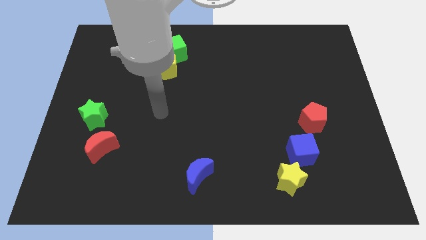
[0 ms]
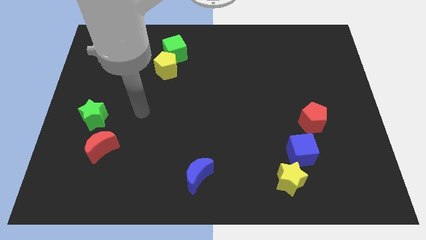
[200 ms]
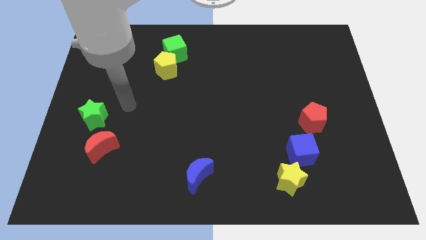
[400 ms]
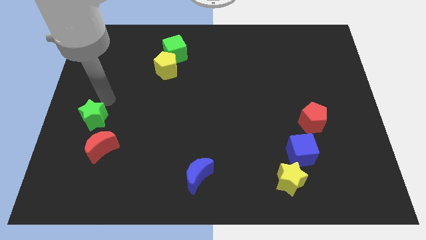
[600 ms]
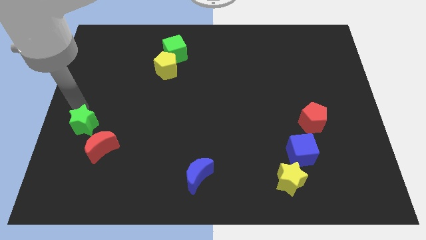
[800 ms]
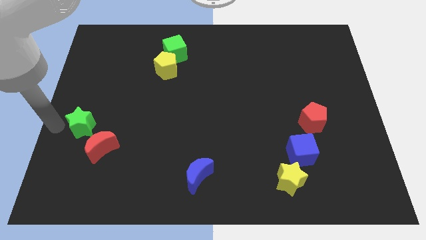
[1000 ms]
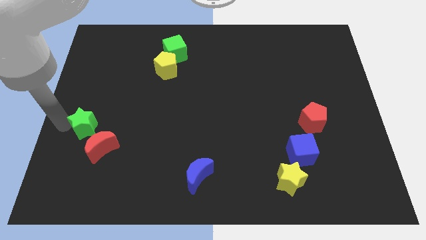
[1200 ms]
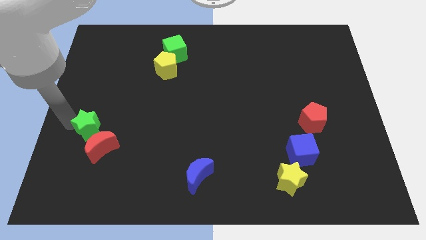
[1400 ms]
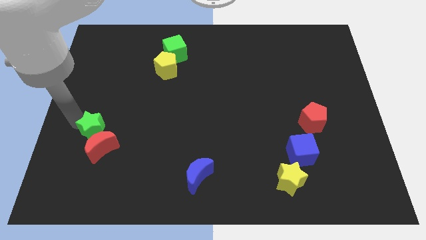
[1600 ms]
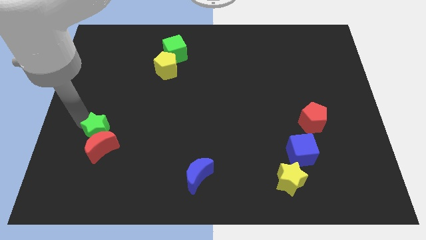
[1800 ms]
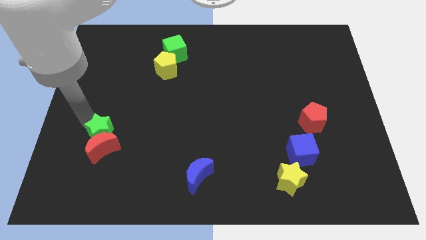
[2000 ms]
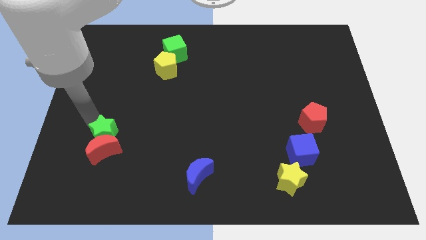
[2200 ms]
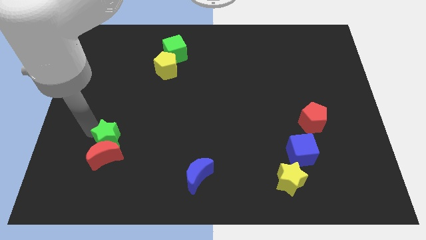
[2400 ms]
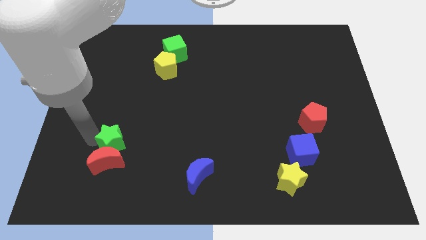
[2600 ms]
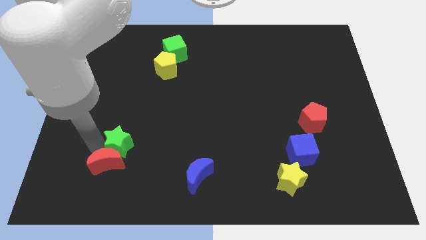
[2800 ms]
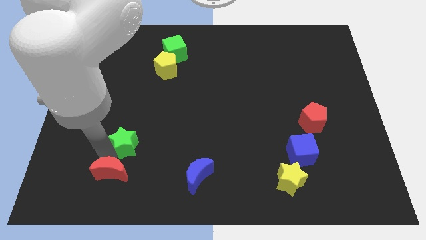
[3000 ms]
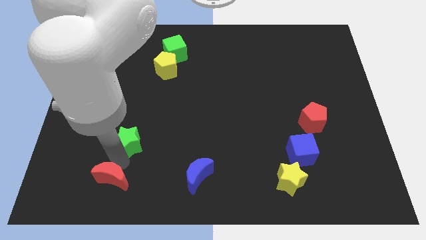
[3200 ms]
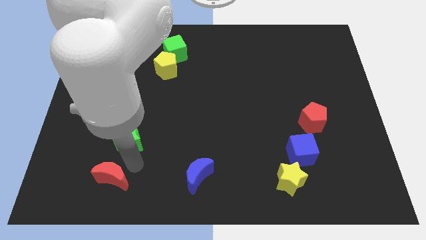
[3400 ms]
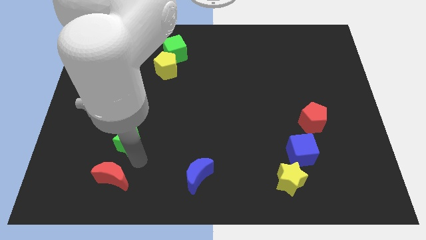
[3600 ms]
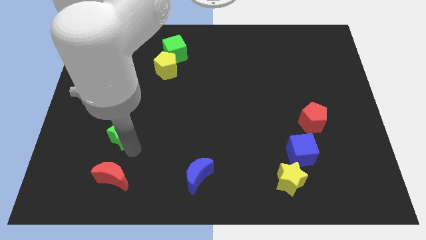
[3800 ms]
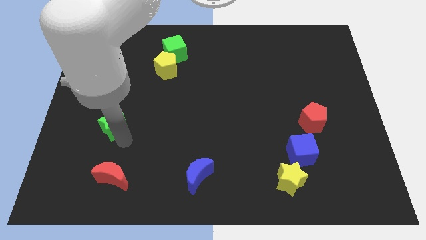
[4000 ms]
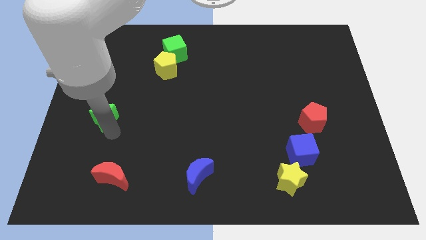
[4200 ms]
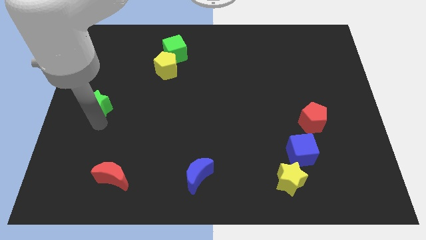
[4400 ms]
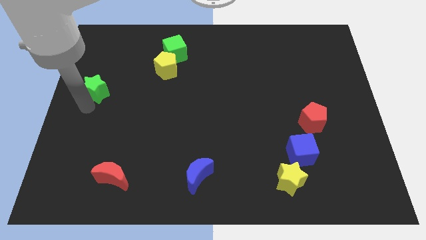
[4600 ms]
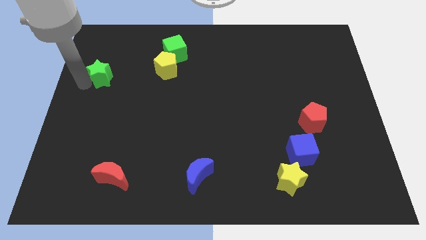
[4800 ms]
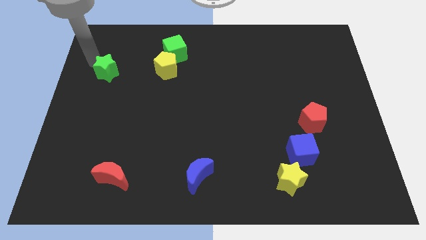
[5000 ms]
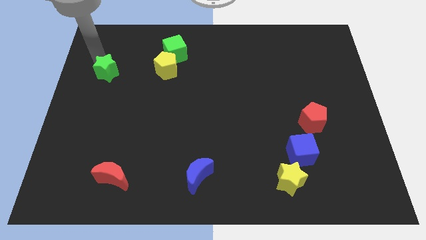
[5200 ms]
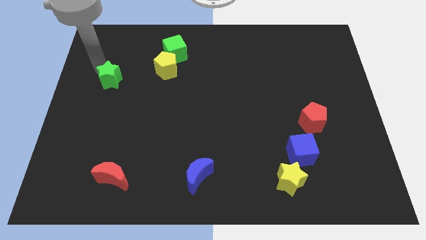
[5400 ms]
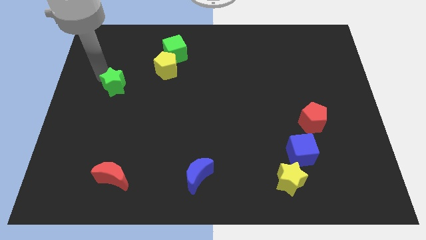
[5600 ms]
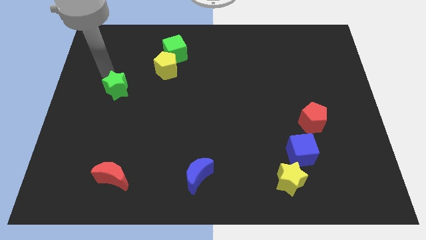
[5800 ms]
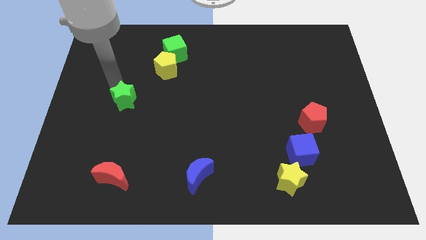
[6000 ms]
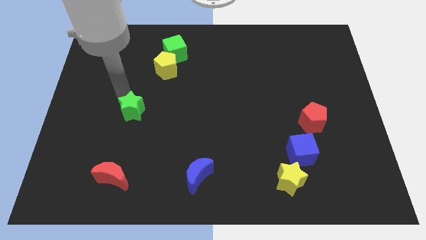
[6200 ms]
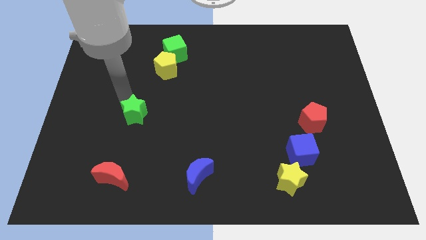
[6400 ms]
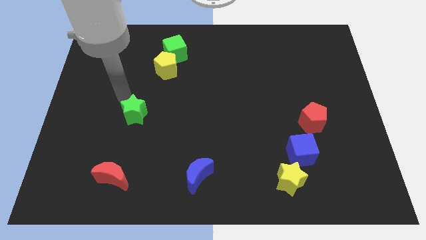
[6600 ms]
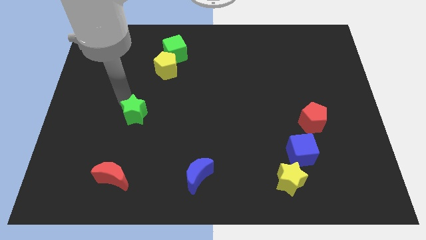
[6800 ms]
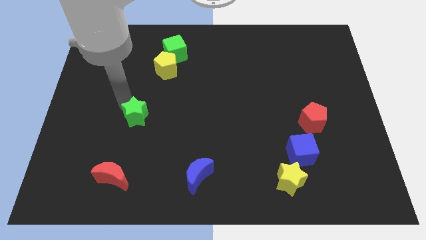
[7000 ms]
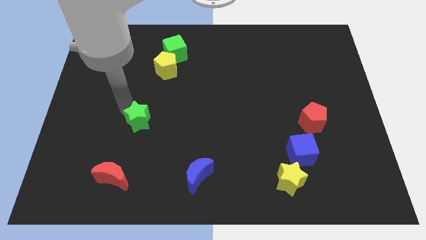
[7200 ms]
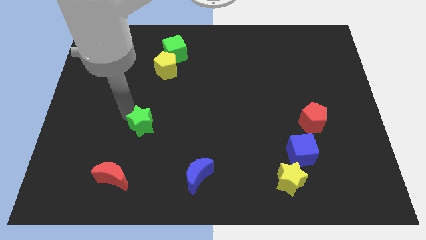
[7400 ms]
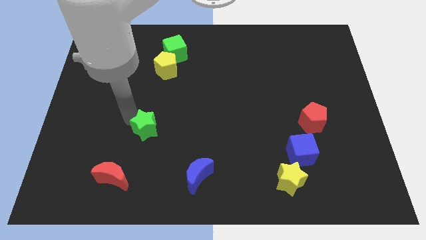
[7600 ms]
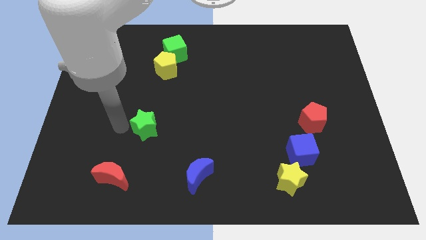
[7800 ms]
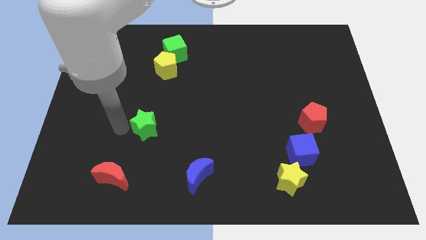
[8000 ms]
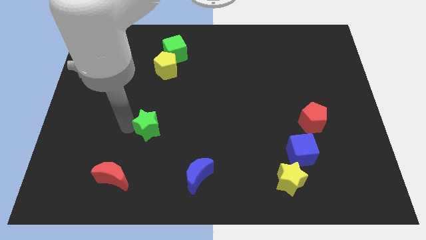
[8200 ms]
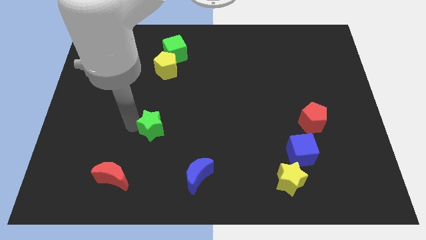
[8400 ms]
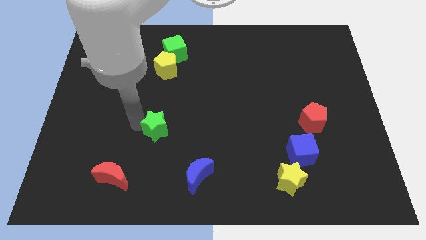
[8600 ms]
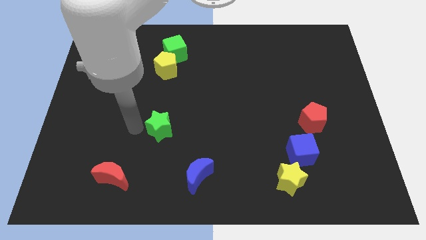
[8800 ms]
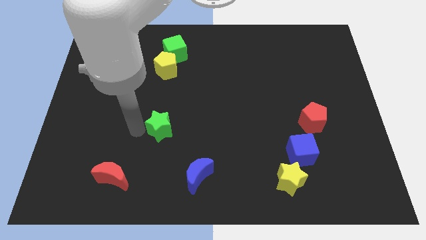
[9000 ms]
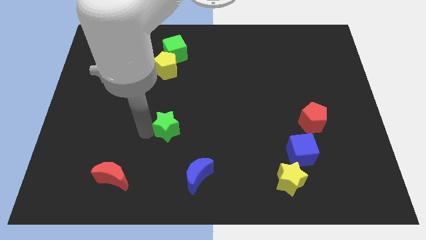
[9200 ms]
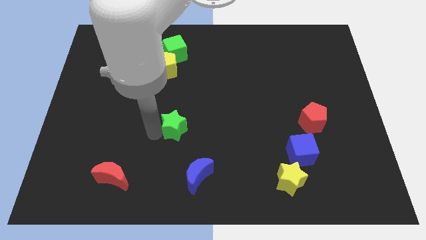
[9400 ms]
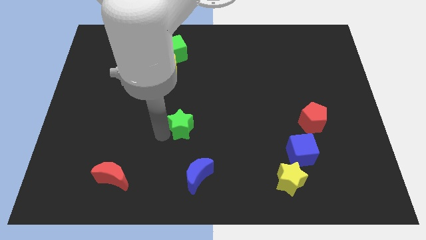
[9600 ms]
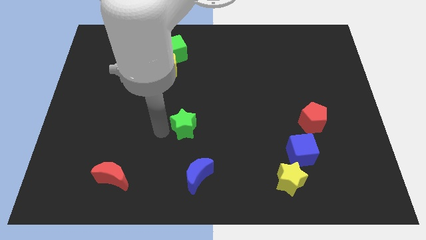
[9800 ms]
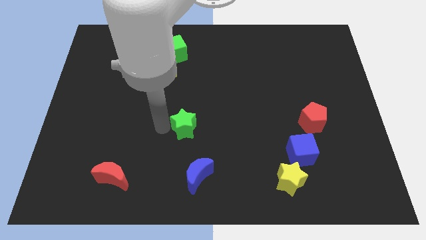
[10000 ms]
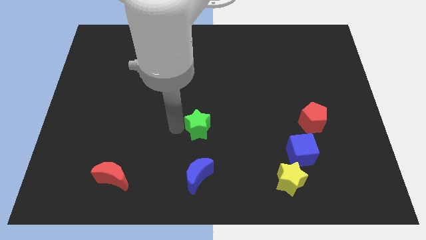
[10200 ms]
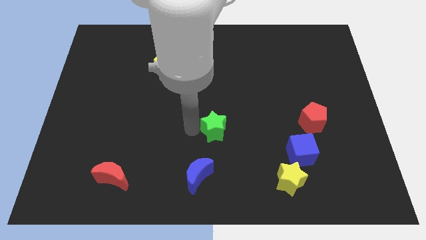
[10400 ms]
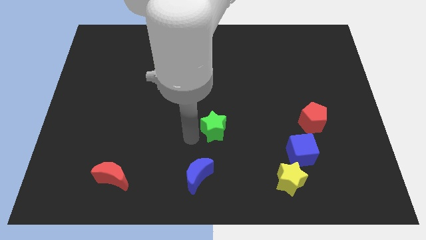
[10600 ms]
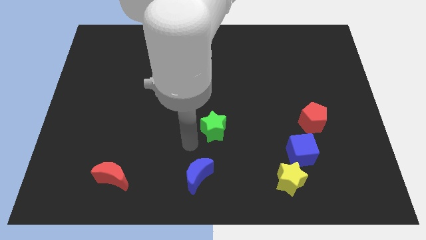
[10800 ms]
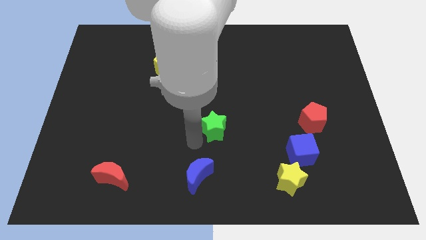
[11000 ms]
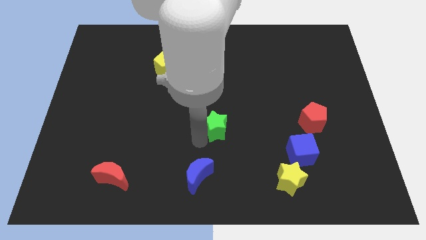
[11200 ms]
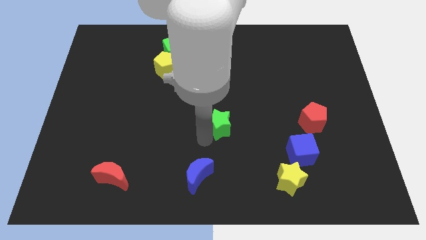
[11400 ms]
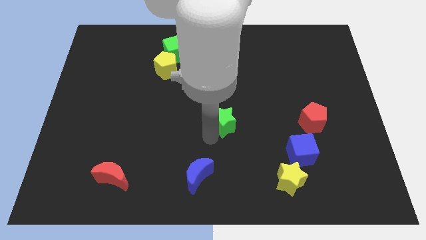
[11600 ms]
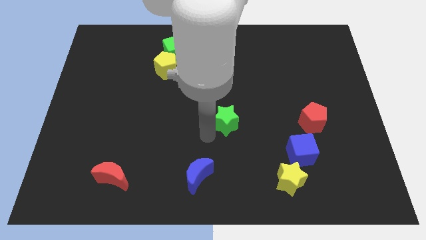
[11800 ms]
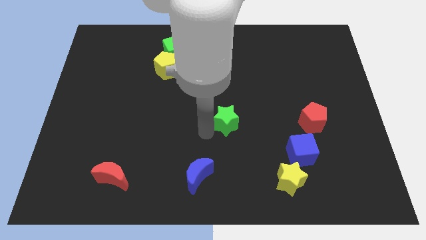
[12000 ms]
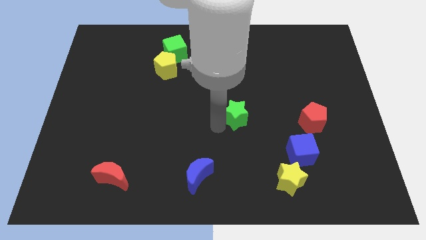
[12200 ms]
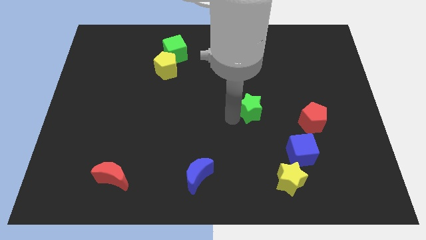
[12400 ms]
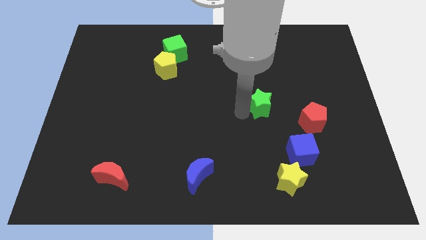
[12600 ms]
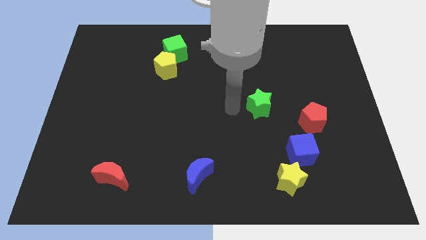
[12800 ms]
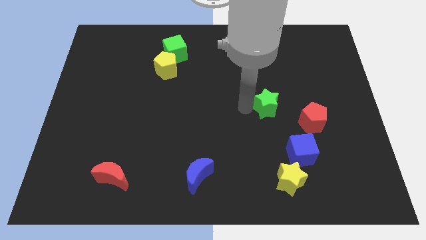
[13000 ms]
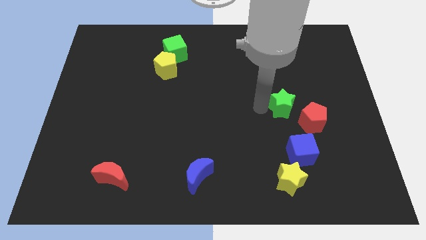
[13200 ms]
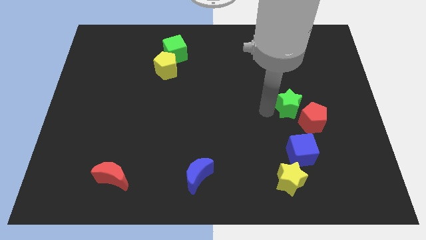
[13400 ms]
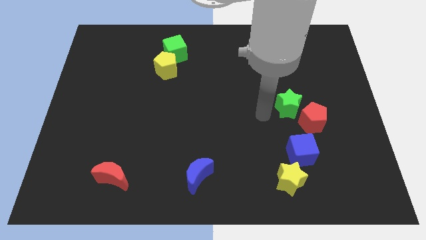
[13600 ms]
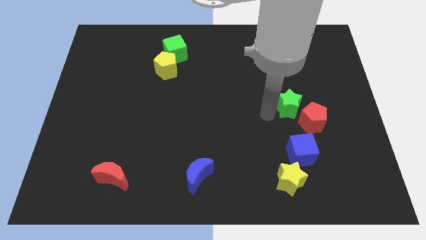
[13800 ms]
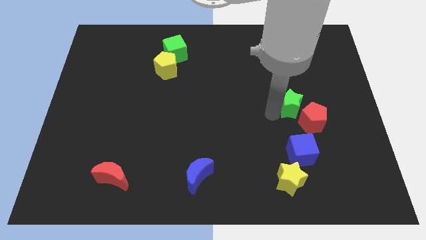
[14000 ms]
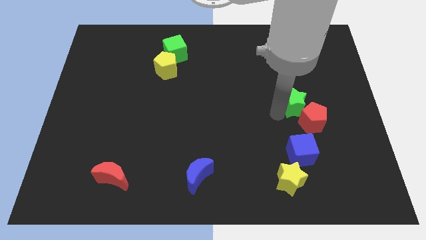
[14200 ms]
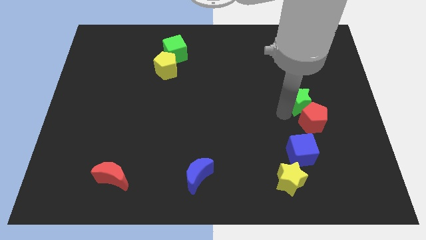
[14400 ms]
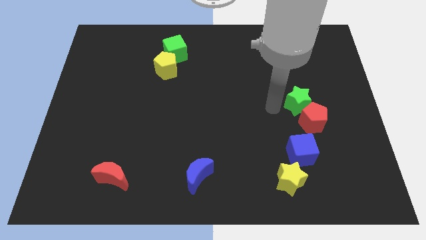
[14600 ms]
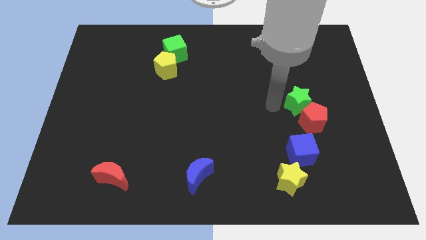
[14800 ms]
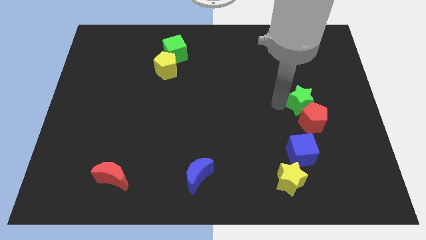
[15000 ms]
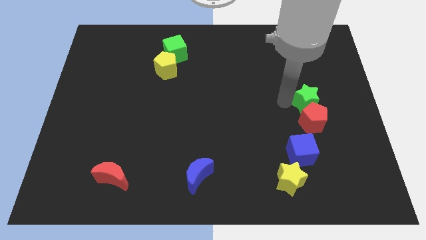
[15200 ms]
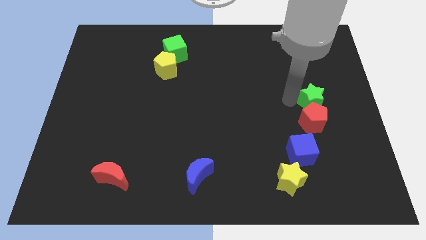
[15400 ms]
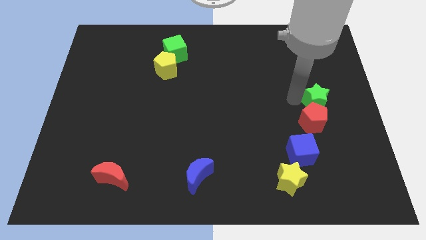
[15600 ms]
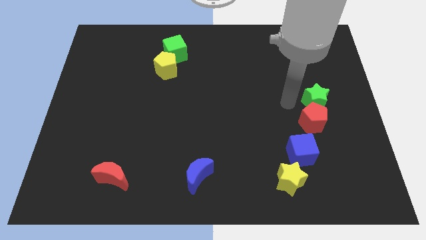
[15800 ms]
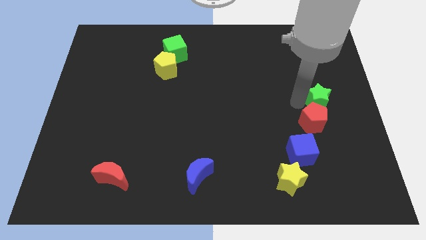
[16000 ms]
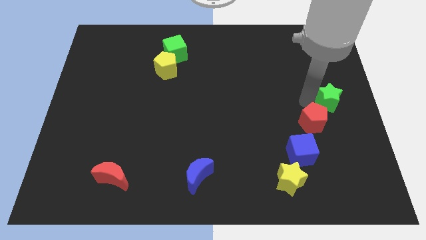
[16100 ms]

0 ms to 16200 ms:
move the green star to the right side of the board
